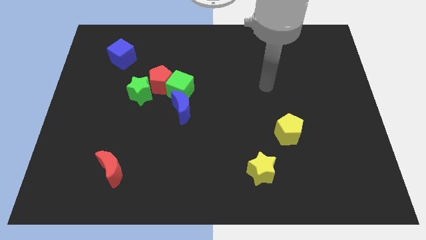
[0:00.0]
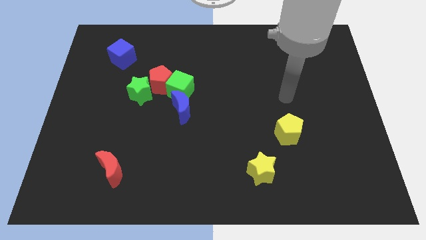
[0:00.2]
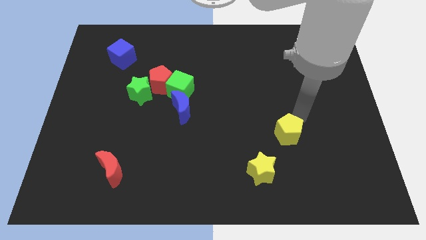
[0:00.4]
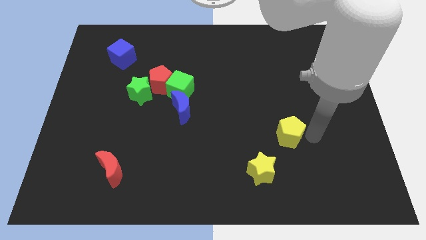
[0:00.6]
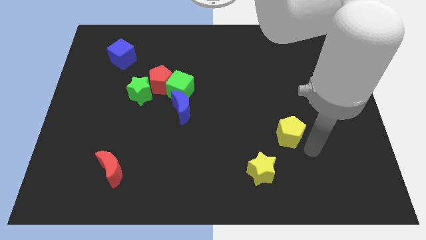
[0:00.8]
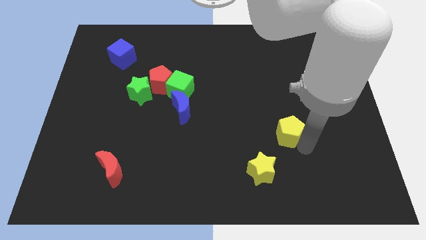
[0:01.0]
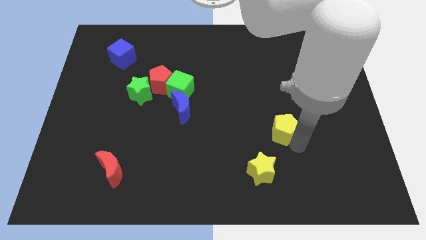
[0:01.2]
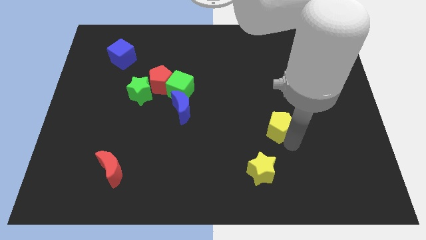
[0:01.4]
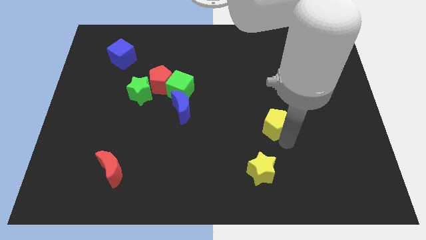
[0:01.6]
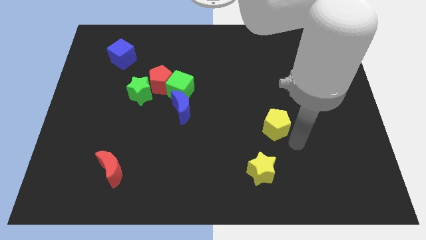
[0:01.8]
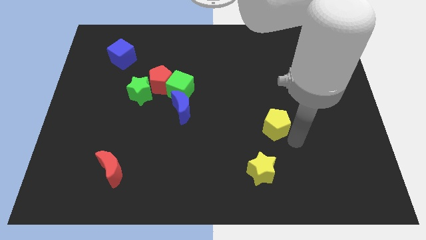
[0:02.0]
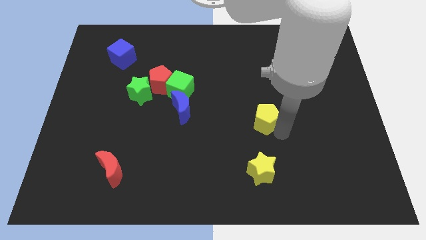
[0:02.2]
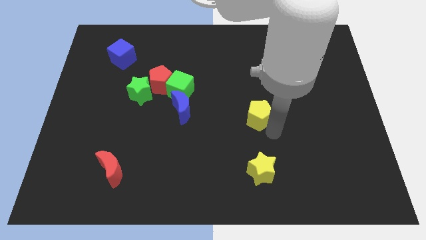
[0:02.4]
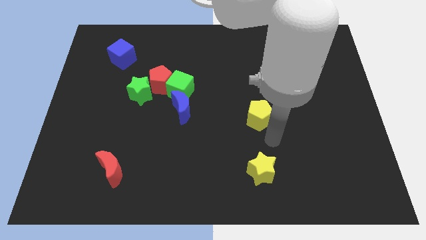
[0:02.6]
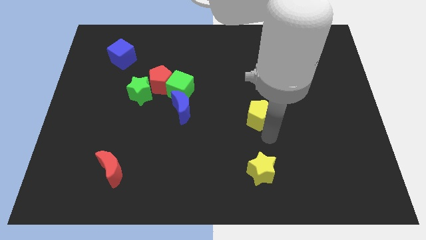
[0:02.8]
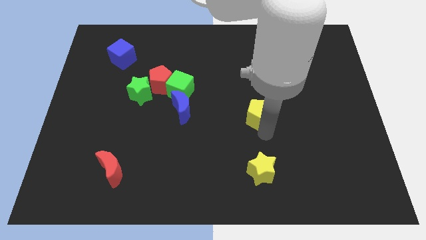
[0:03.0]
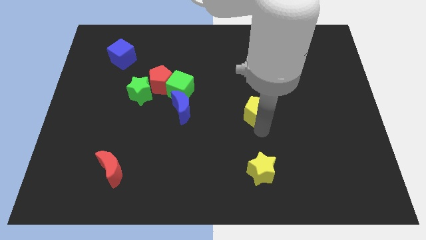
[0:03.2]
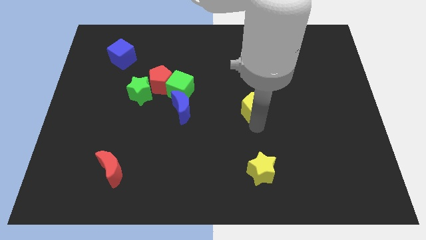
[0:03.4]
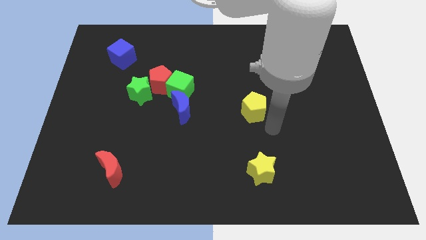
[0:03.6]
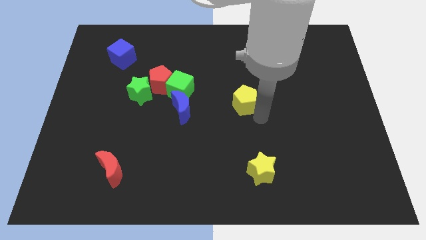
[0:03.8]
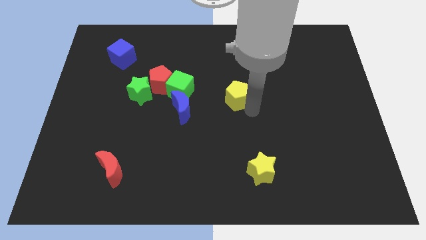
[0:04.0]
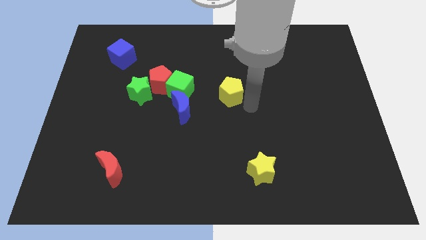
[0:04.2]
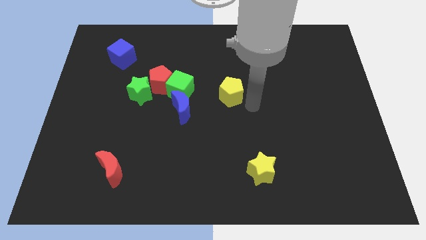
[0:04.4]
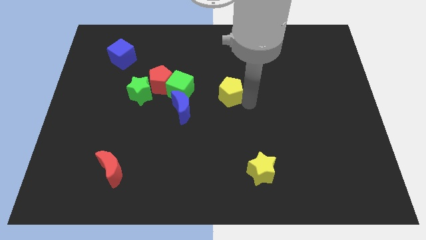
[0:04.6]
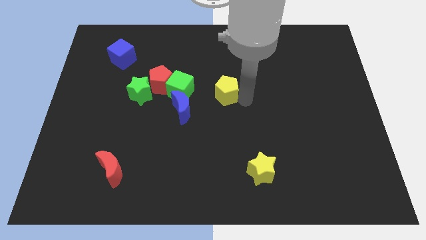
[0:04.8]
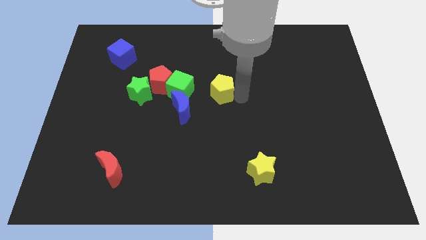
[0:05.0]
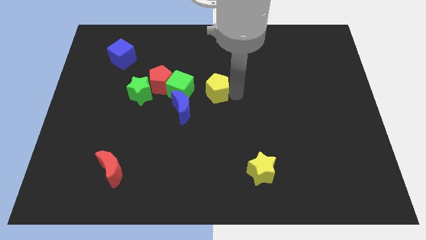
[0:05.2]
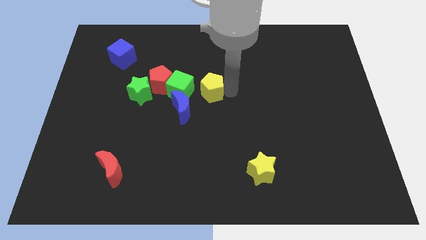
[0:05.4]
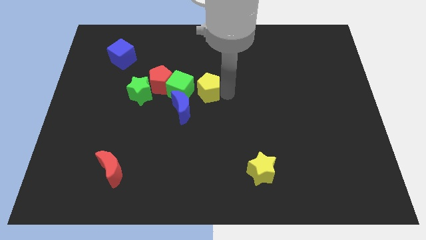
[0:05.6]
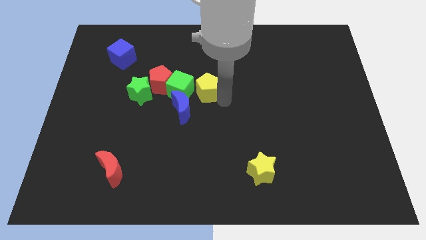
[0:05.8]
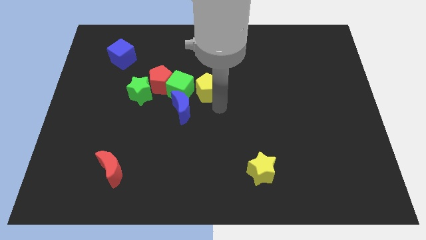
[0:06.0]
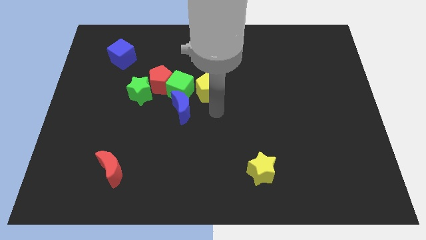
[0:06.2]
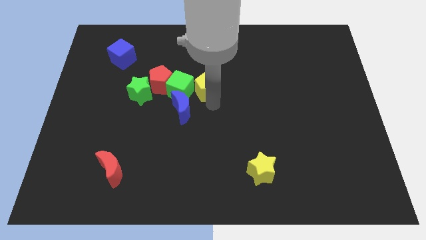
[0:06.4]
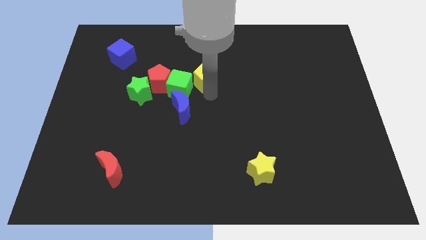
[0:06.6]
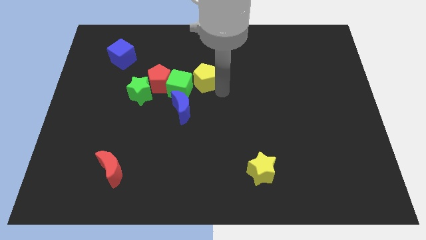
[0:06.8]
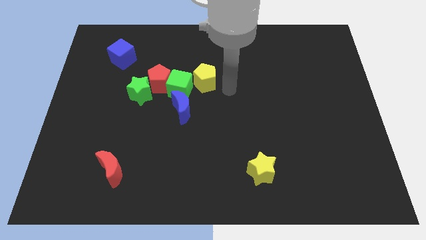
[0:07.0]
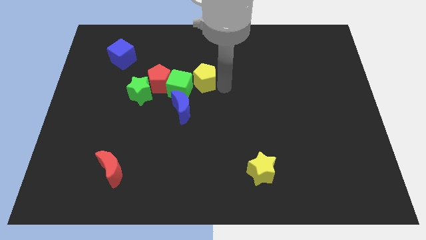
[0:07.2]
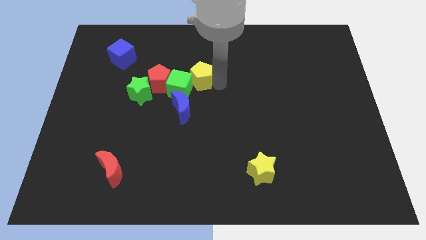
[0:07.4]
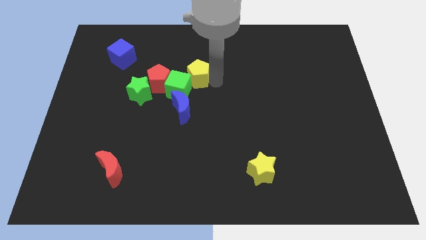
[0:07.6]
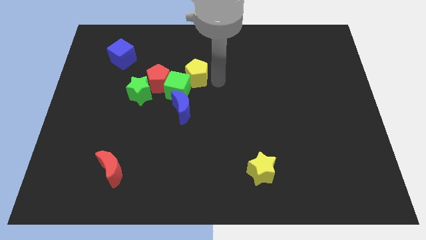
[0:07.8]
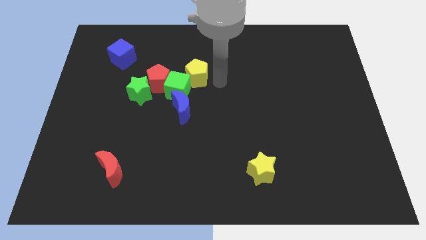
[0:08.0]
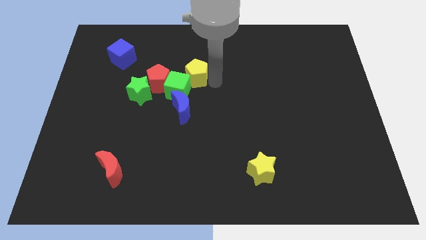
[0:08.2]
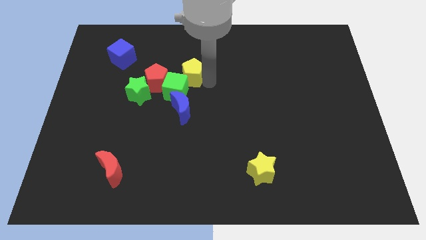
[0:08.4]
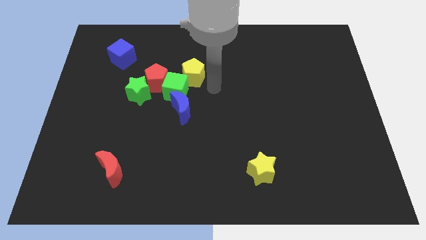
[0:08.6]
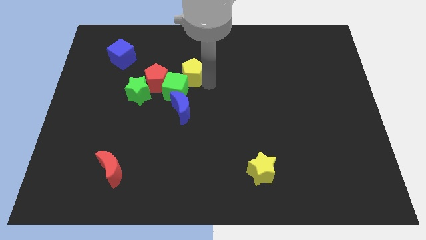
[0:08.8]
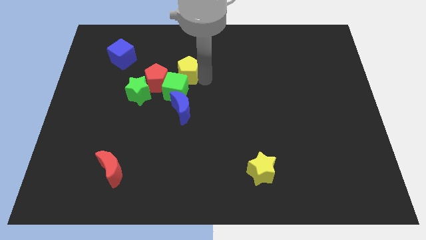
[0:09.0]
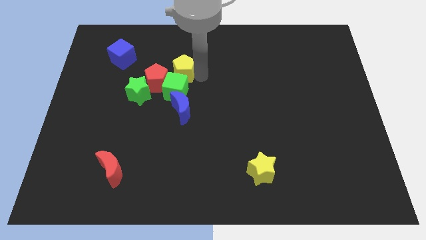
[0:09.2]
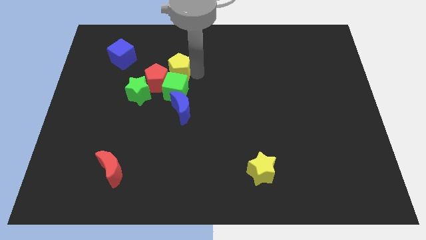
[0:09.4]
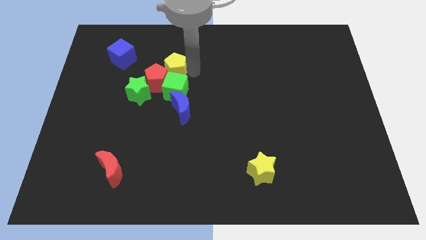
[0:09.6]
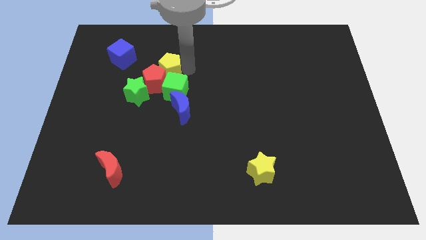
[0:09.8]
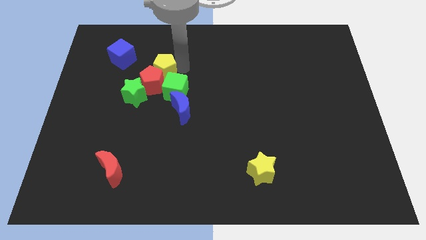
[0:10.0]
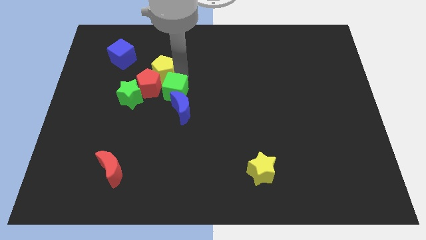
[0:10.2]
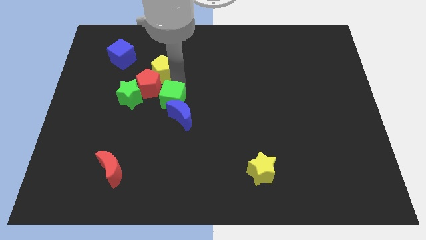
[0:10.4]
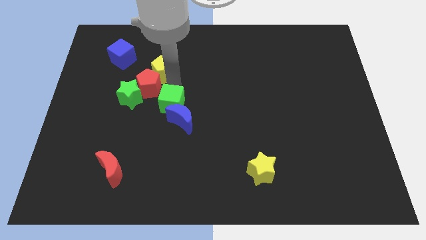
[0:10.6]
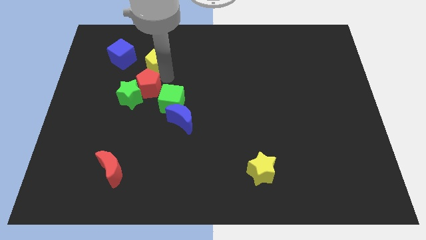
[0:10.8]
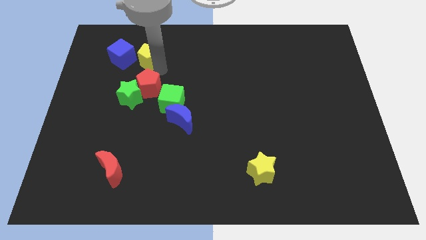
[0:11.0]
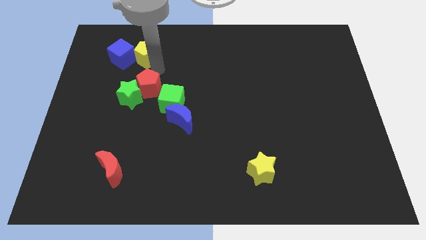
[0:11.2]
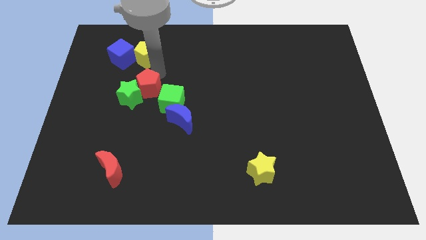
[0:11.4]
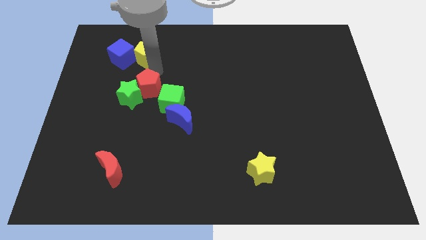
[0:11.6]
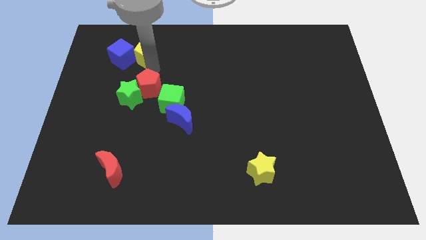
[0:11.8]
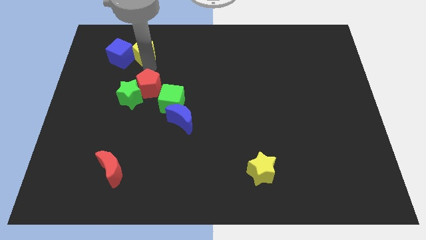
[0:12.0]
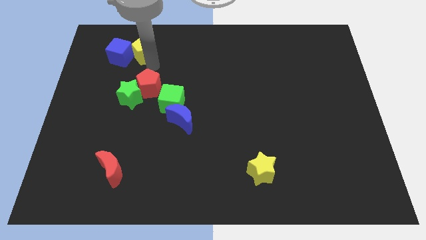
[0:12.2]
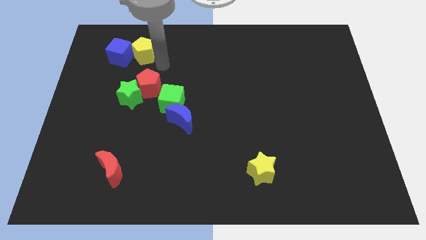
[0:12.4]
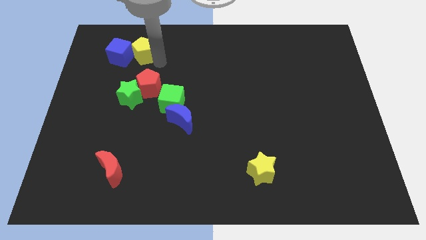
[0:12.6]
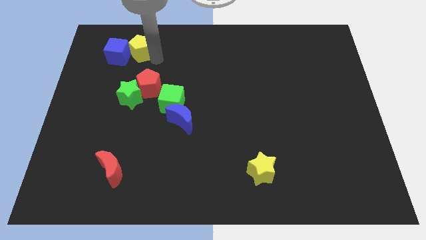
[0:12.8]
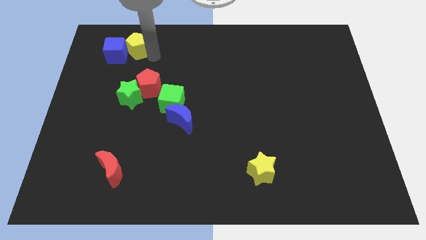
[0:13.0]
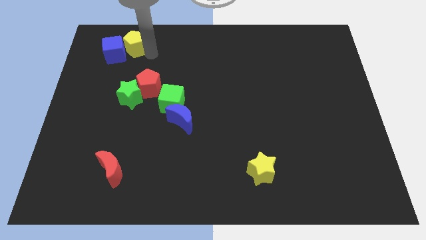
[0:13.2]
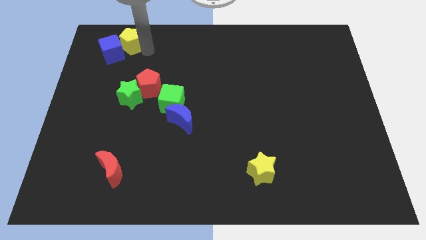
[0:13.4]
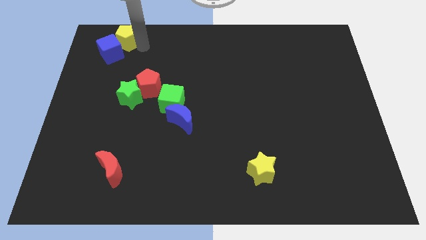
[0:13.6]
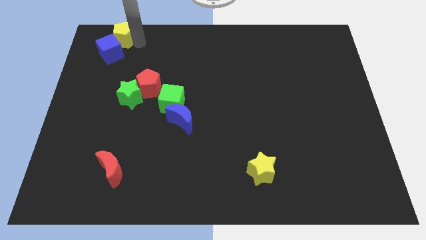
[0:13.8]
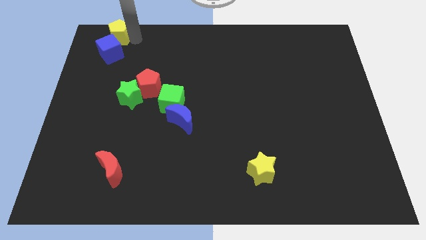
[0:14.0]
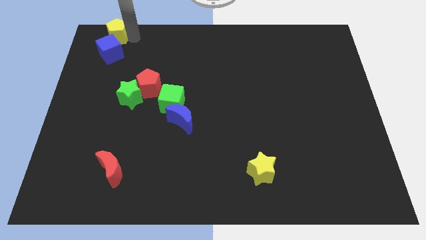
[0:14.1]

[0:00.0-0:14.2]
put the yellow pentagon to the top left of the board
